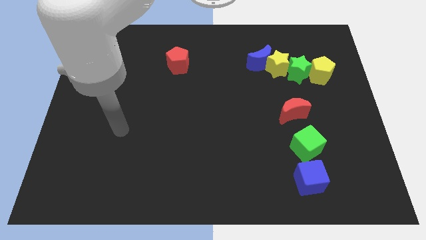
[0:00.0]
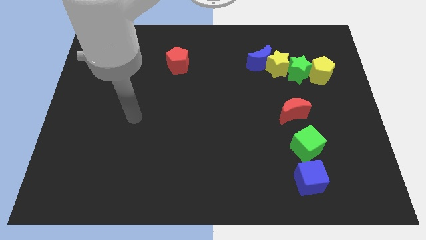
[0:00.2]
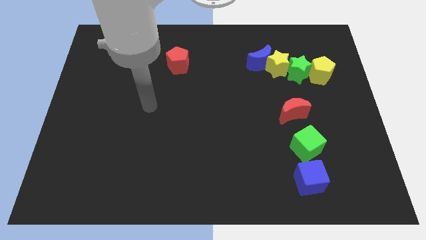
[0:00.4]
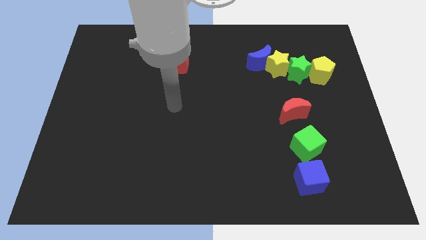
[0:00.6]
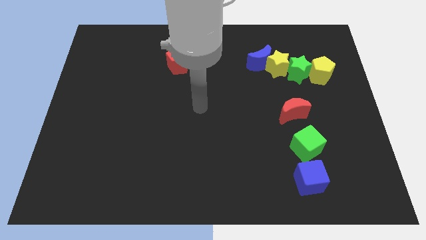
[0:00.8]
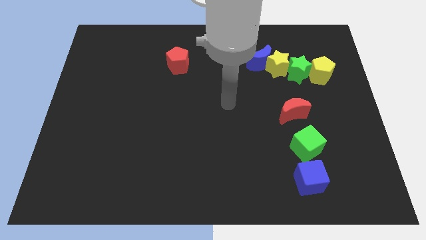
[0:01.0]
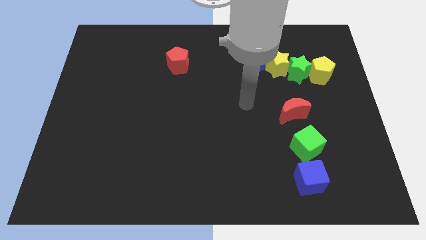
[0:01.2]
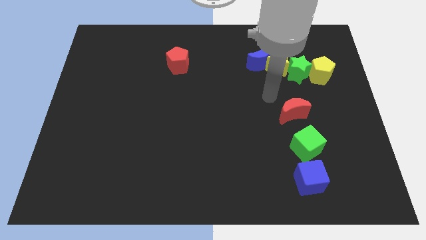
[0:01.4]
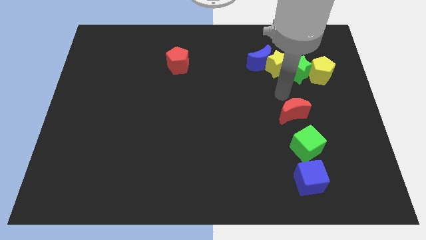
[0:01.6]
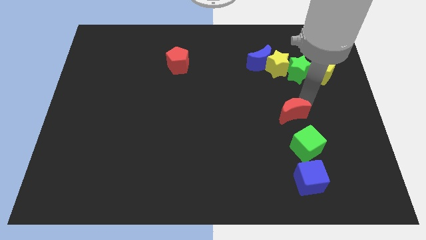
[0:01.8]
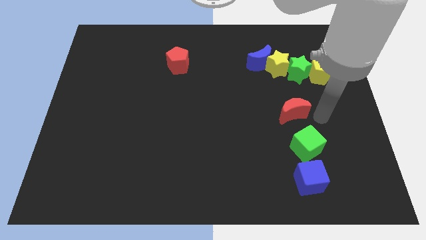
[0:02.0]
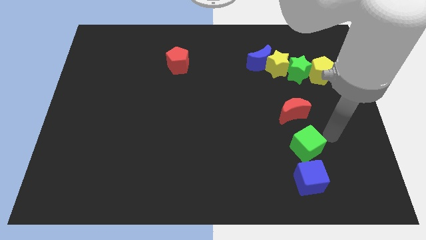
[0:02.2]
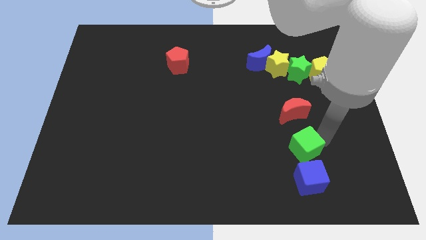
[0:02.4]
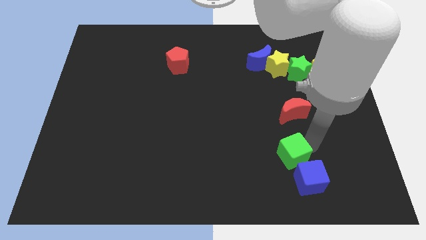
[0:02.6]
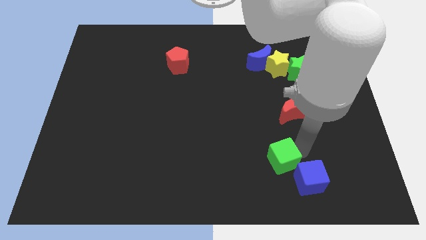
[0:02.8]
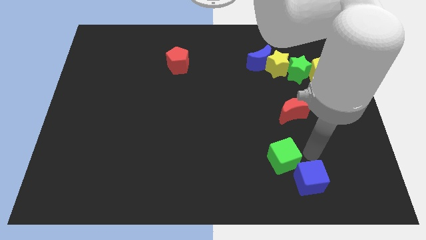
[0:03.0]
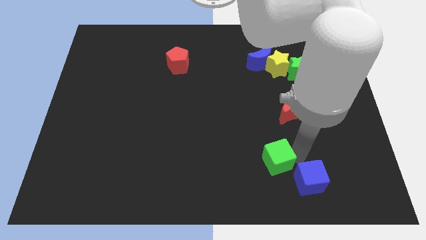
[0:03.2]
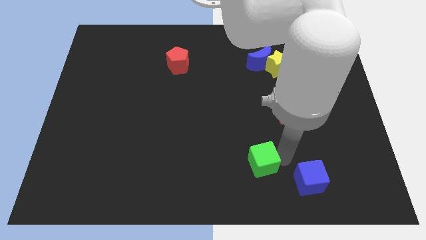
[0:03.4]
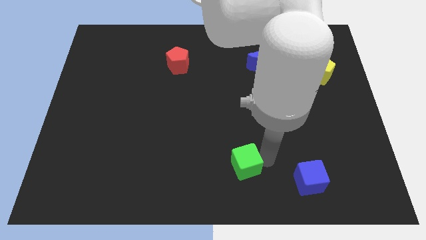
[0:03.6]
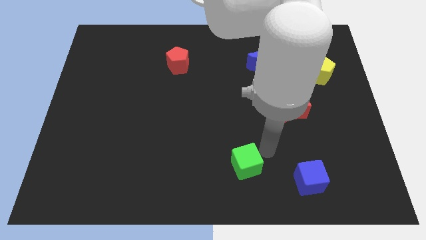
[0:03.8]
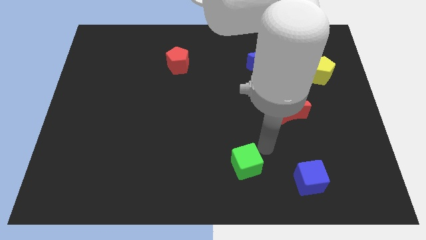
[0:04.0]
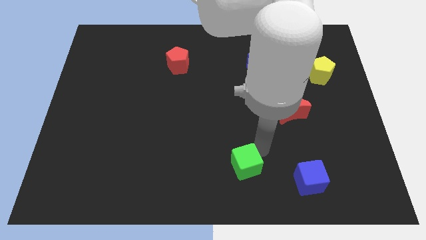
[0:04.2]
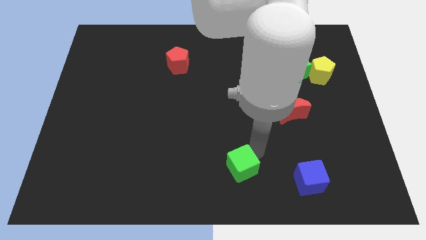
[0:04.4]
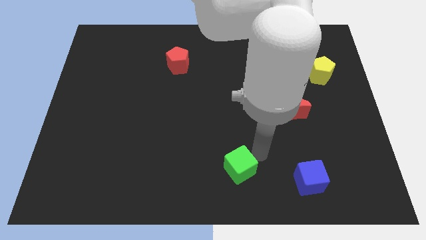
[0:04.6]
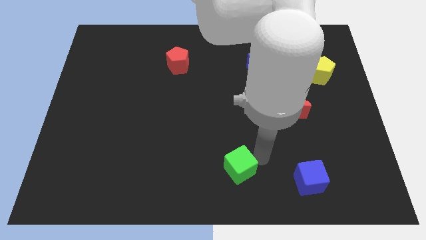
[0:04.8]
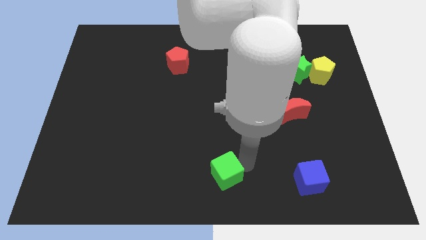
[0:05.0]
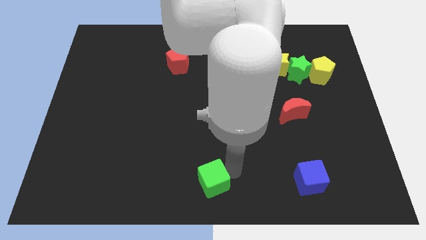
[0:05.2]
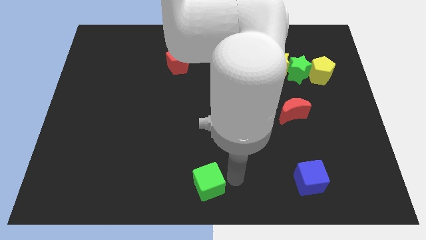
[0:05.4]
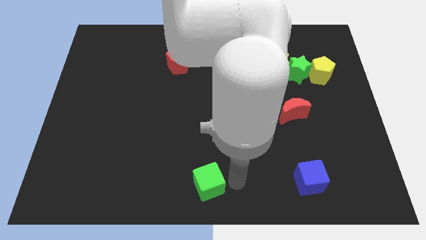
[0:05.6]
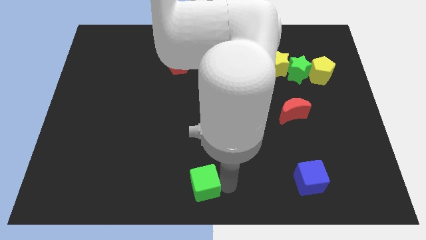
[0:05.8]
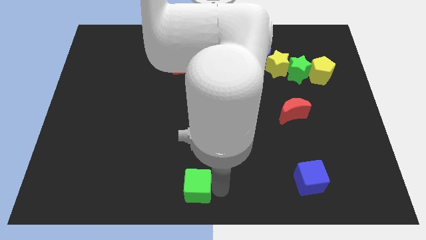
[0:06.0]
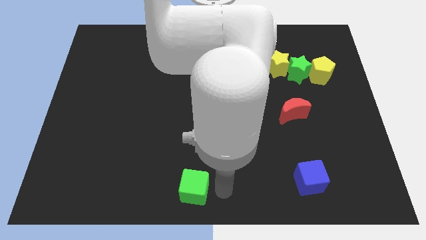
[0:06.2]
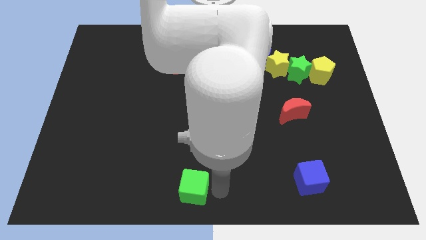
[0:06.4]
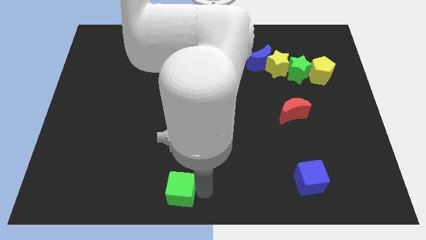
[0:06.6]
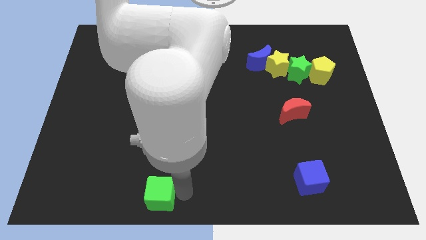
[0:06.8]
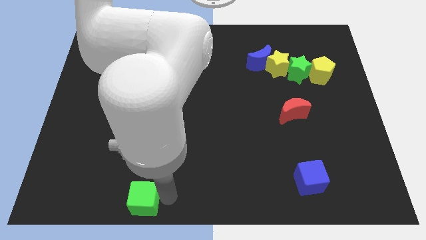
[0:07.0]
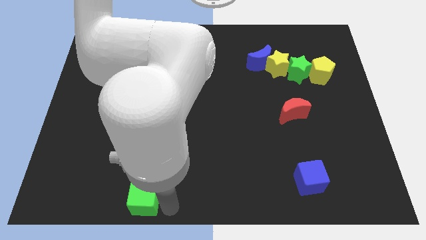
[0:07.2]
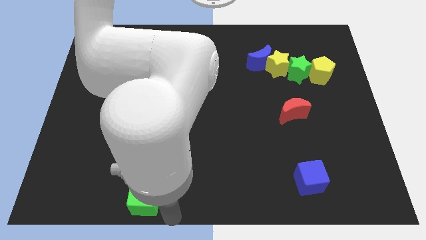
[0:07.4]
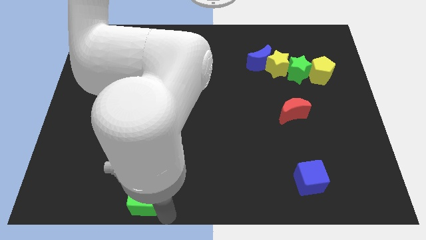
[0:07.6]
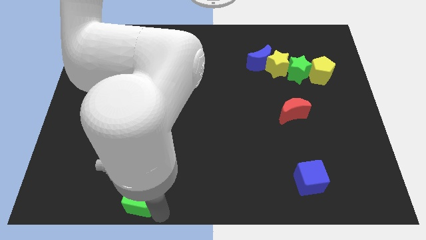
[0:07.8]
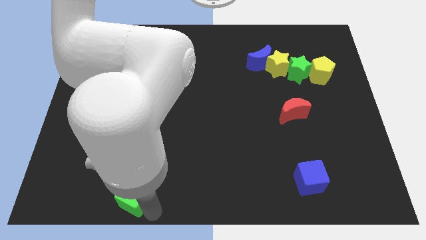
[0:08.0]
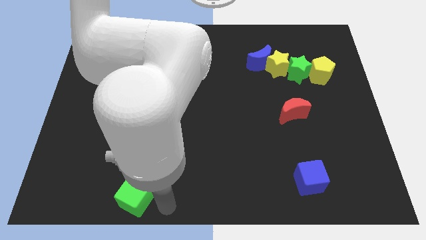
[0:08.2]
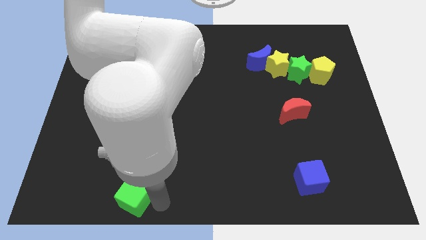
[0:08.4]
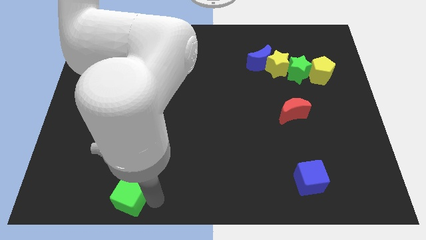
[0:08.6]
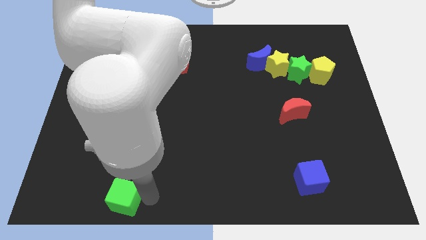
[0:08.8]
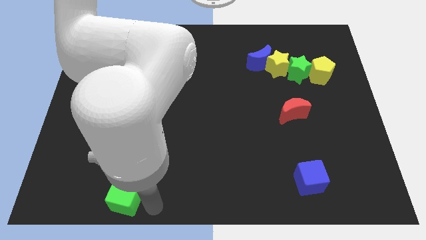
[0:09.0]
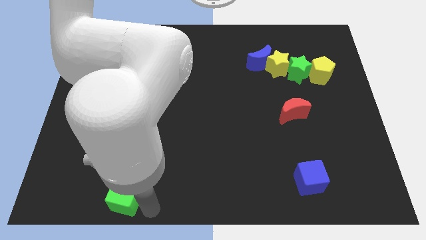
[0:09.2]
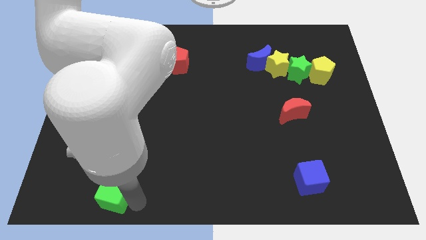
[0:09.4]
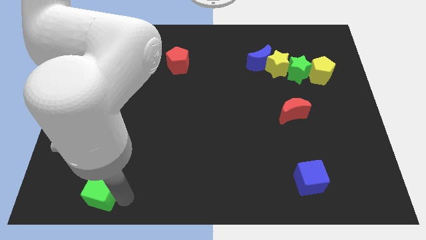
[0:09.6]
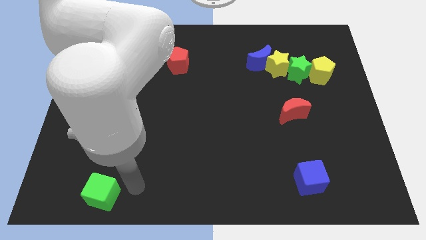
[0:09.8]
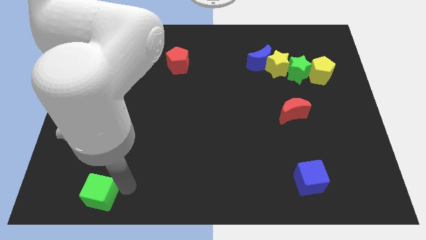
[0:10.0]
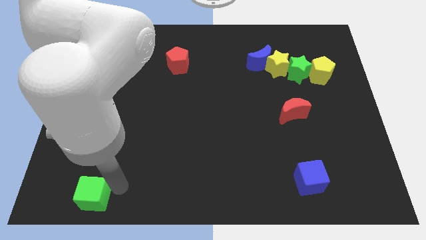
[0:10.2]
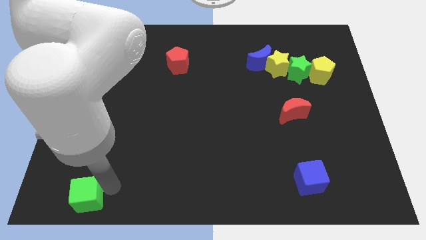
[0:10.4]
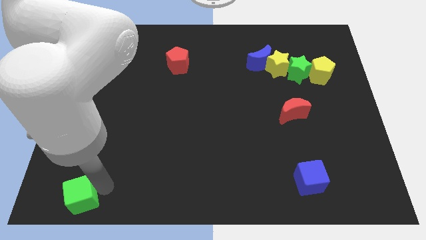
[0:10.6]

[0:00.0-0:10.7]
move the green cube to the lower left corner

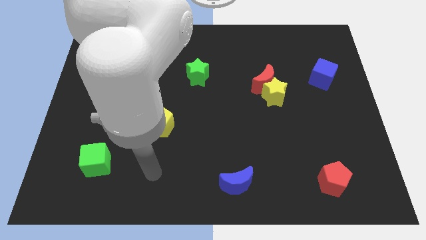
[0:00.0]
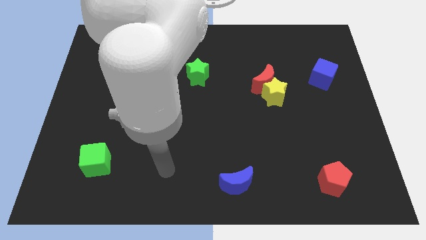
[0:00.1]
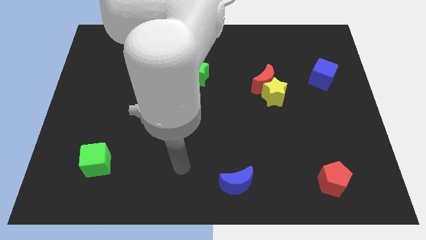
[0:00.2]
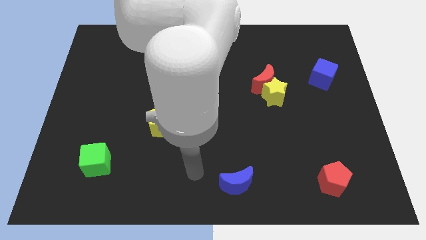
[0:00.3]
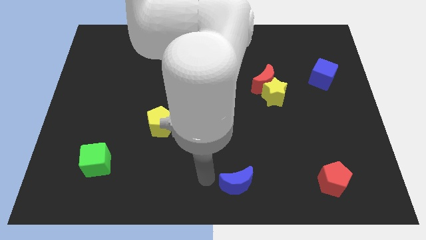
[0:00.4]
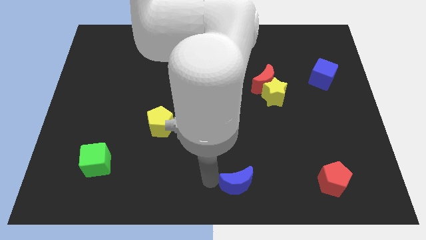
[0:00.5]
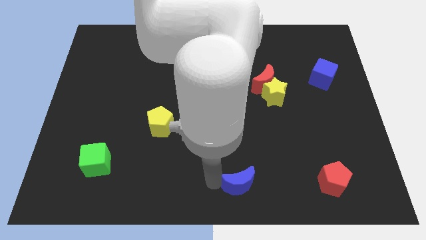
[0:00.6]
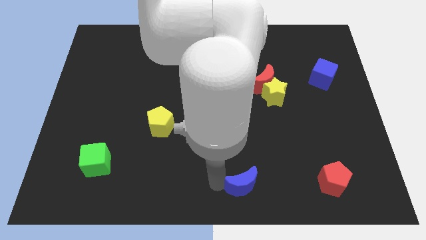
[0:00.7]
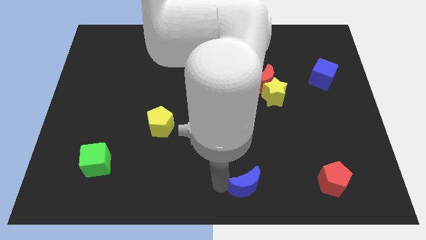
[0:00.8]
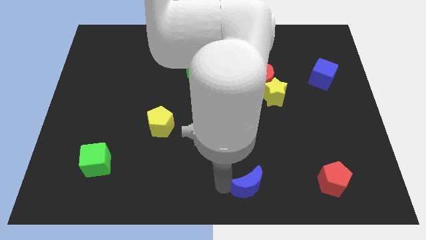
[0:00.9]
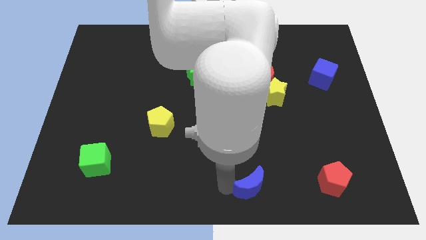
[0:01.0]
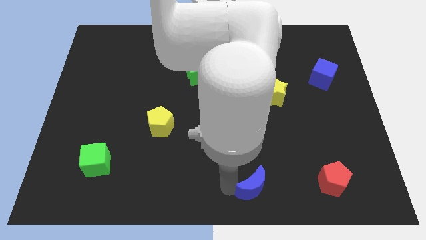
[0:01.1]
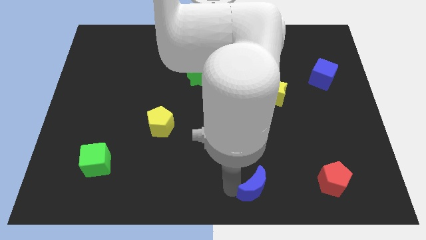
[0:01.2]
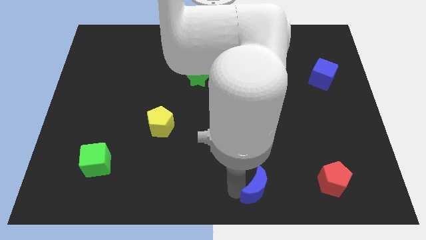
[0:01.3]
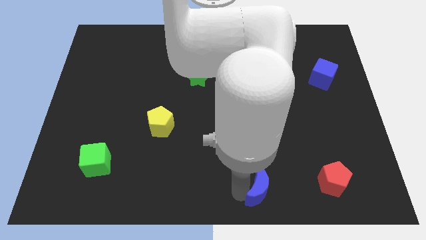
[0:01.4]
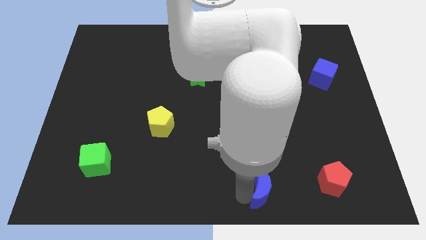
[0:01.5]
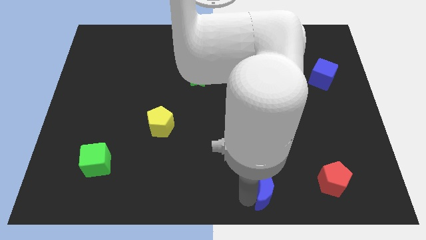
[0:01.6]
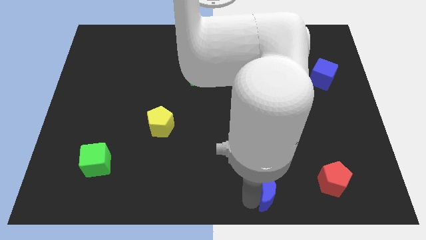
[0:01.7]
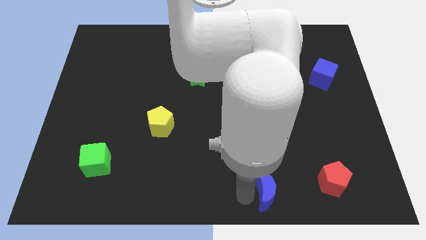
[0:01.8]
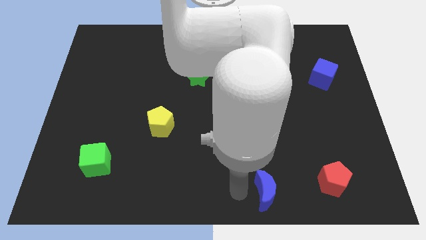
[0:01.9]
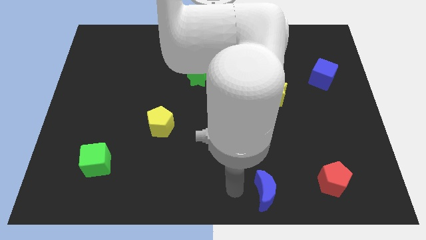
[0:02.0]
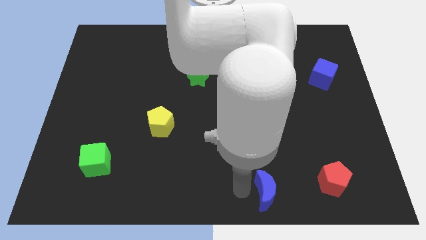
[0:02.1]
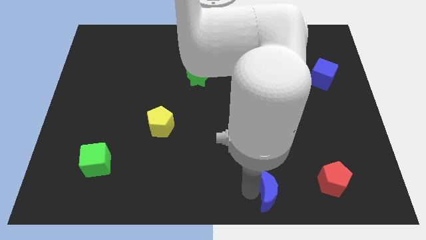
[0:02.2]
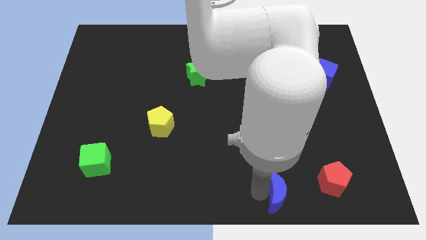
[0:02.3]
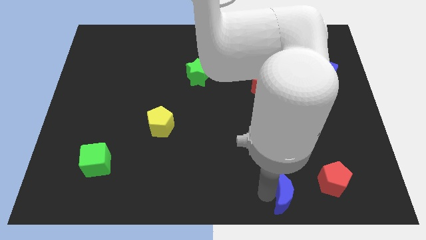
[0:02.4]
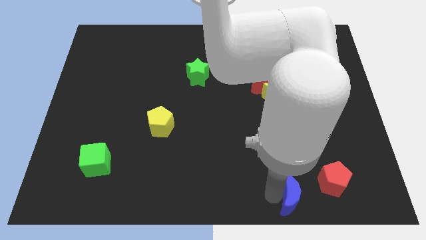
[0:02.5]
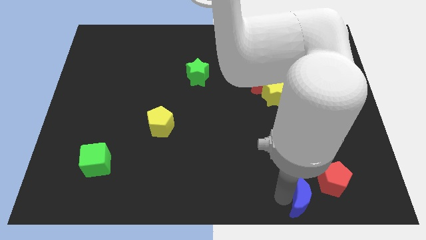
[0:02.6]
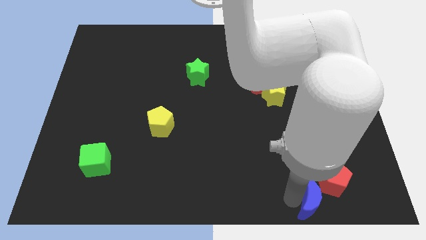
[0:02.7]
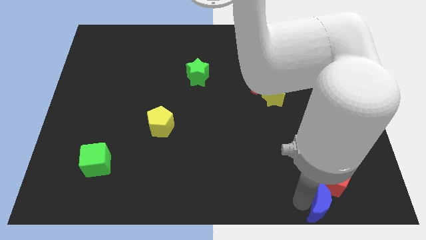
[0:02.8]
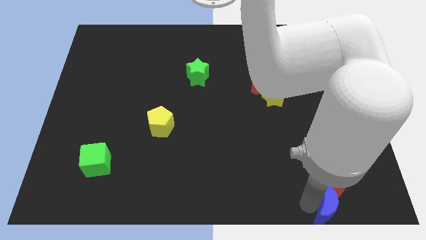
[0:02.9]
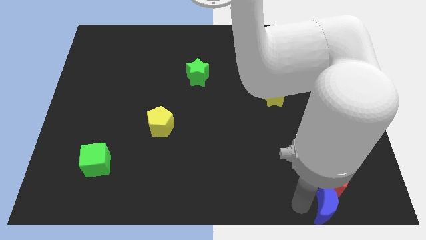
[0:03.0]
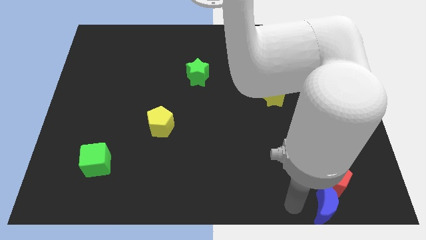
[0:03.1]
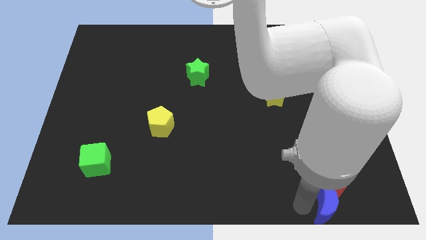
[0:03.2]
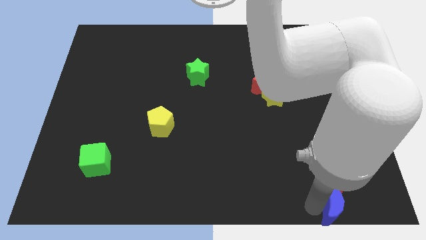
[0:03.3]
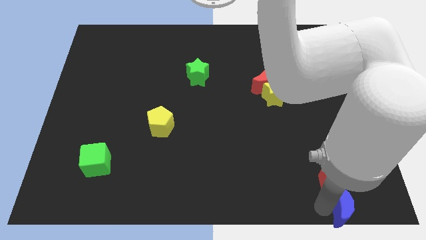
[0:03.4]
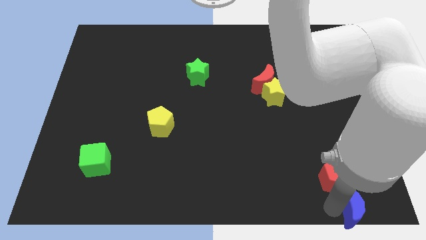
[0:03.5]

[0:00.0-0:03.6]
move the blue moon to the lower right corner
